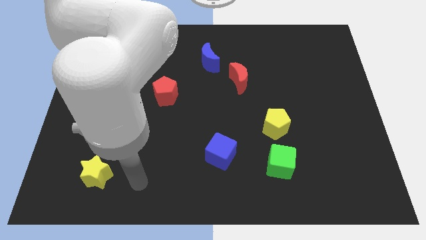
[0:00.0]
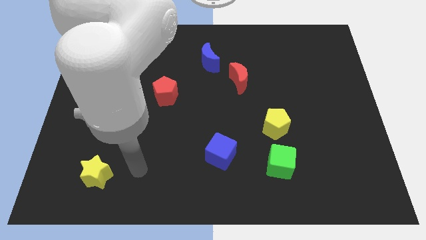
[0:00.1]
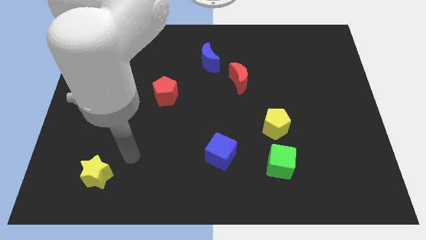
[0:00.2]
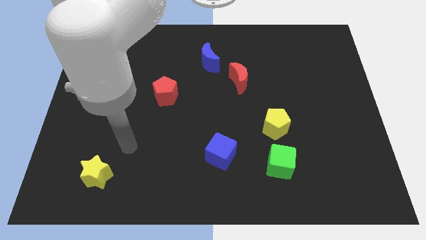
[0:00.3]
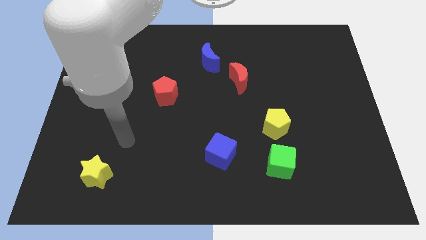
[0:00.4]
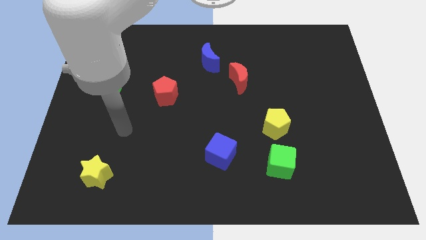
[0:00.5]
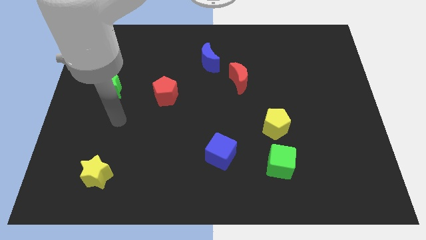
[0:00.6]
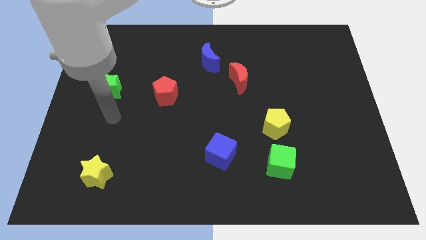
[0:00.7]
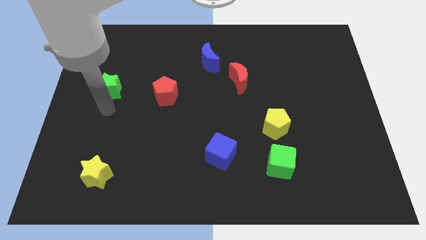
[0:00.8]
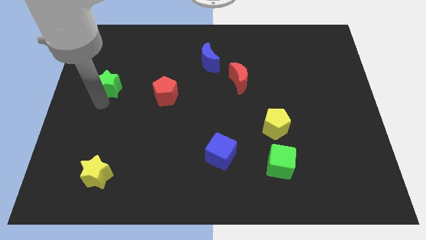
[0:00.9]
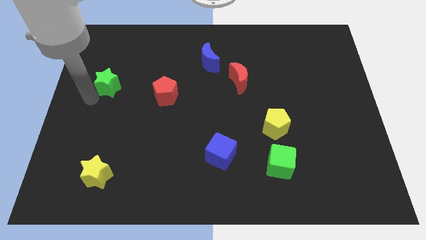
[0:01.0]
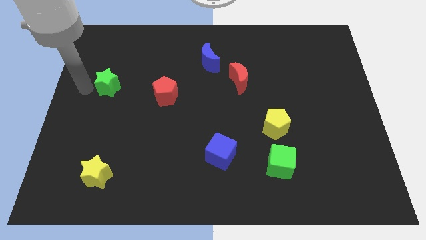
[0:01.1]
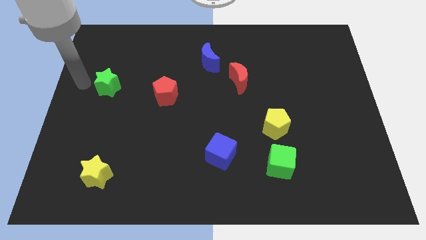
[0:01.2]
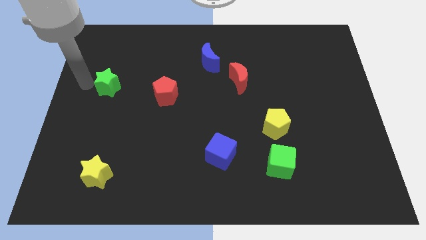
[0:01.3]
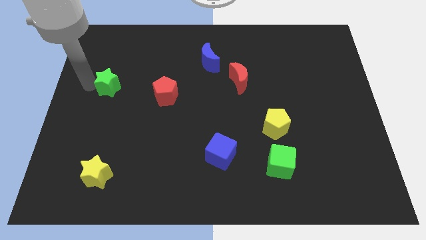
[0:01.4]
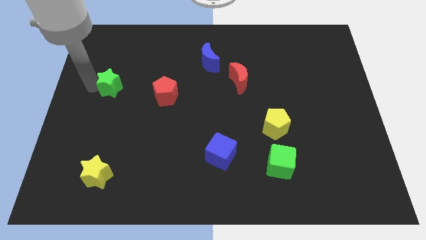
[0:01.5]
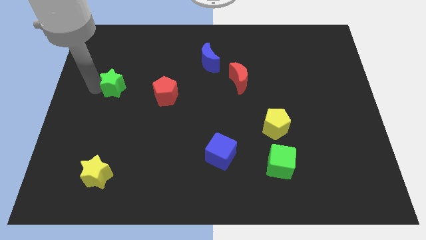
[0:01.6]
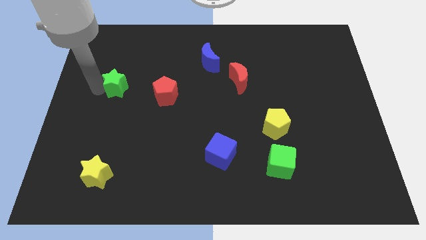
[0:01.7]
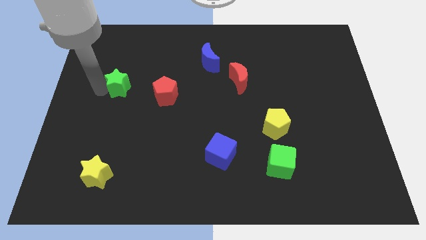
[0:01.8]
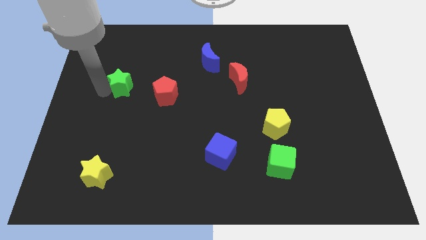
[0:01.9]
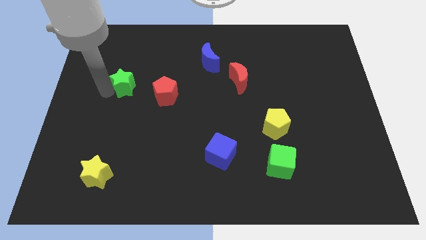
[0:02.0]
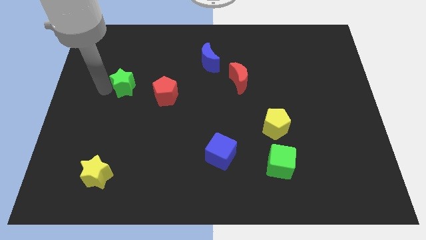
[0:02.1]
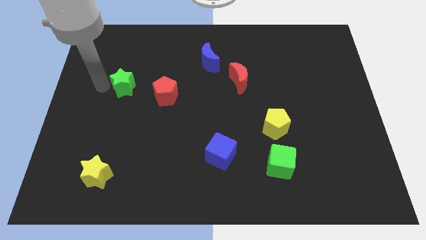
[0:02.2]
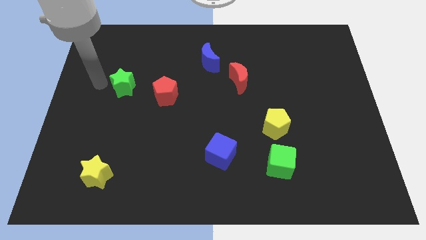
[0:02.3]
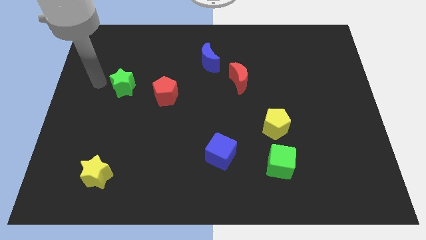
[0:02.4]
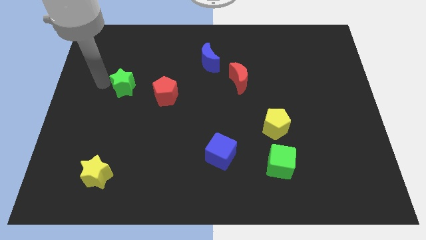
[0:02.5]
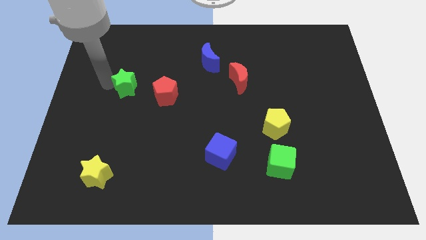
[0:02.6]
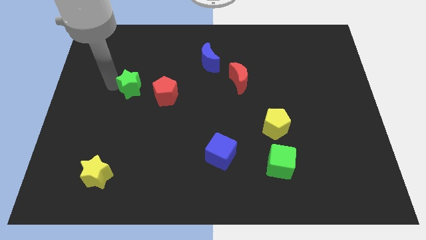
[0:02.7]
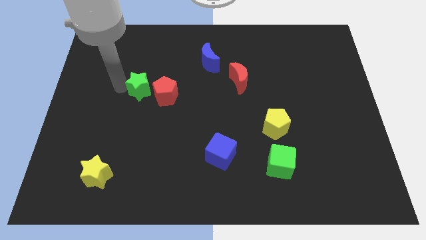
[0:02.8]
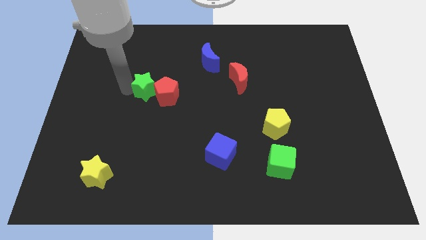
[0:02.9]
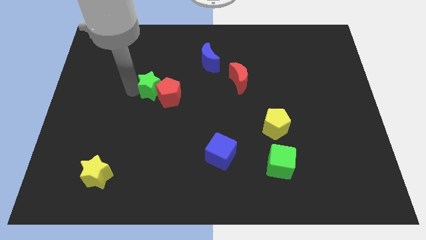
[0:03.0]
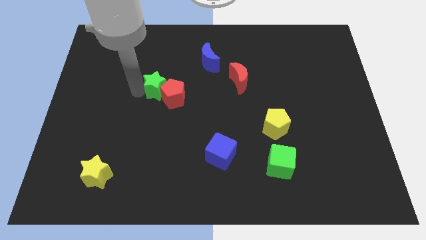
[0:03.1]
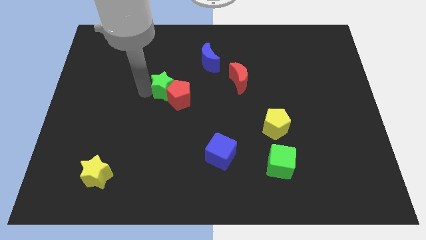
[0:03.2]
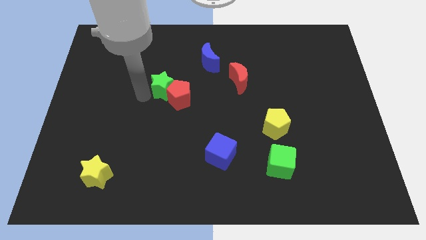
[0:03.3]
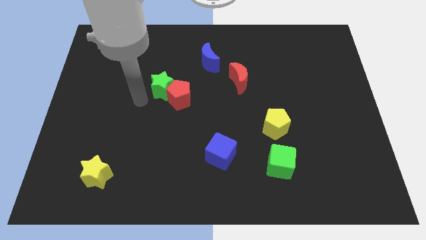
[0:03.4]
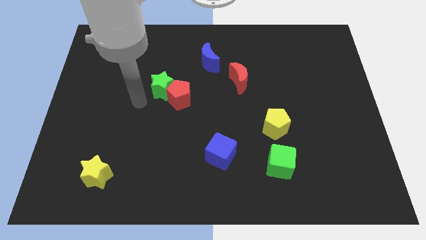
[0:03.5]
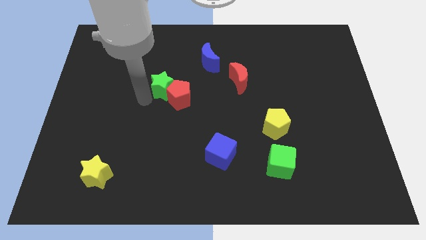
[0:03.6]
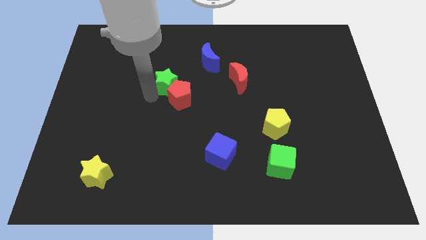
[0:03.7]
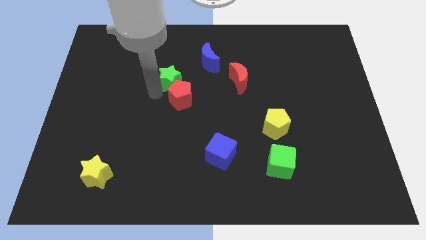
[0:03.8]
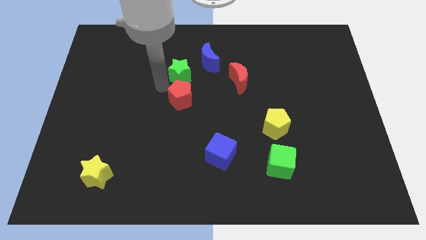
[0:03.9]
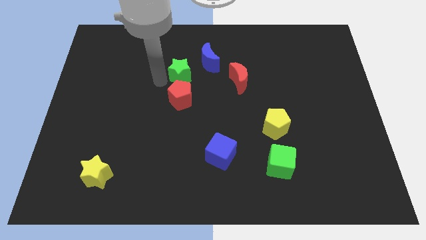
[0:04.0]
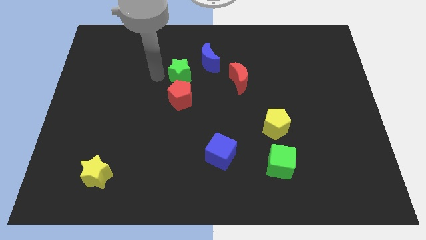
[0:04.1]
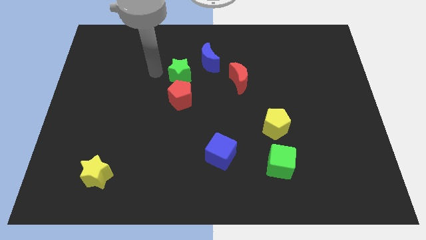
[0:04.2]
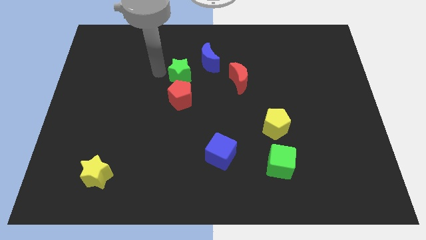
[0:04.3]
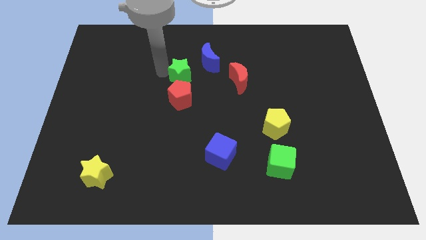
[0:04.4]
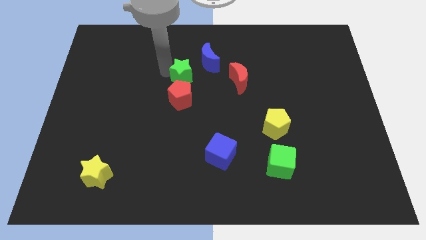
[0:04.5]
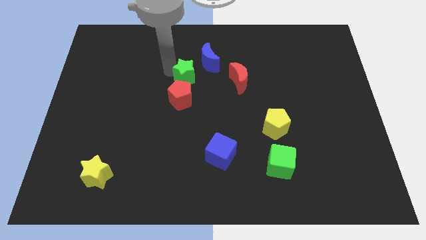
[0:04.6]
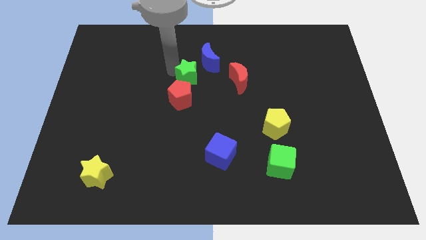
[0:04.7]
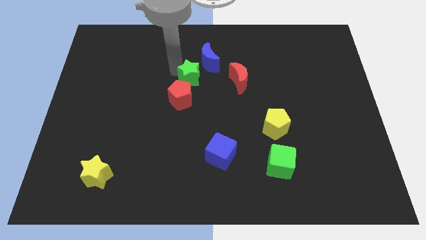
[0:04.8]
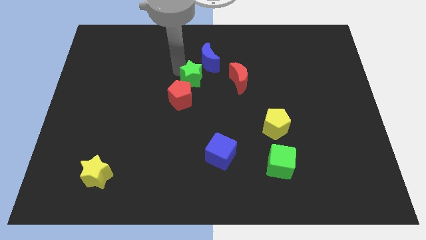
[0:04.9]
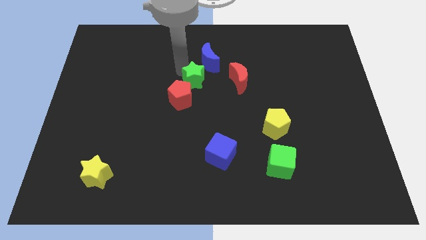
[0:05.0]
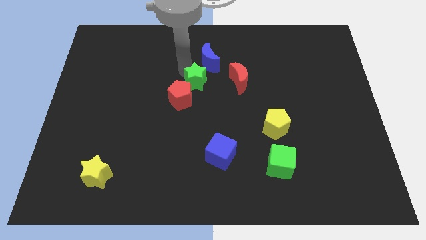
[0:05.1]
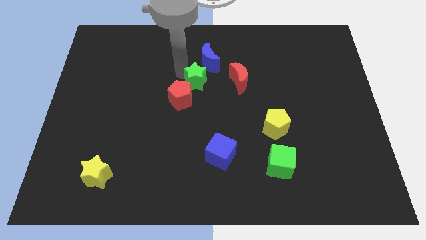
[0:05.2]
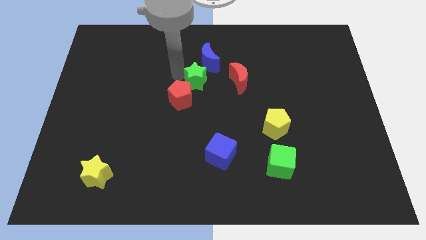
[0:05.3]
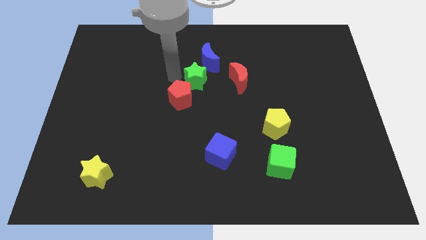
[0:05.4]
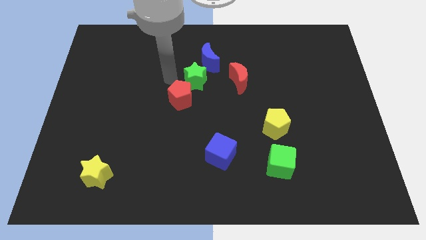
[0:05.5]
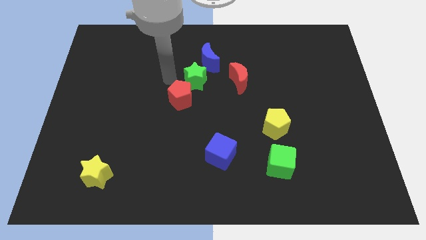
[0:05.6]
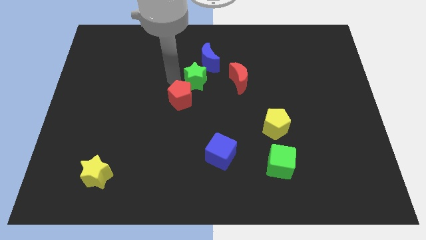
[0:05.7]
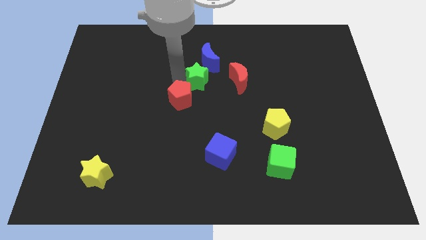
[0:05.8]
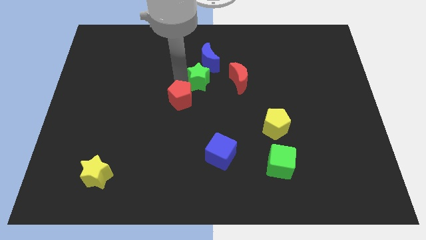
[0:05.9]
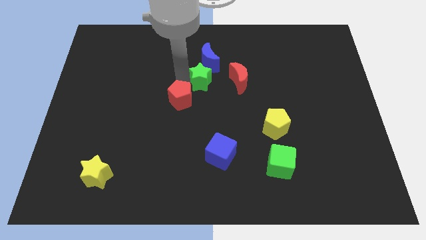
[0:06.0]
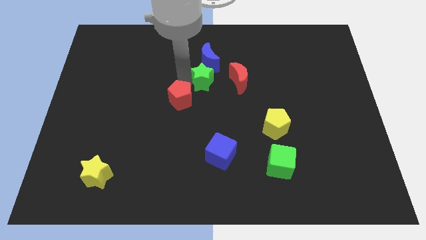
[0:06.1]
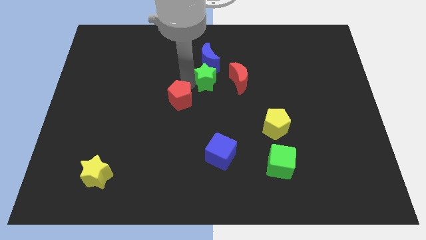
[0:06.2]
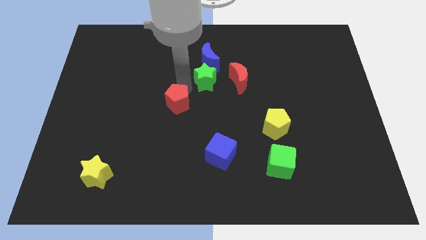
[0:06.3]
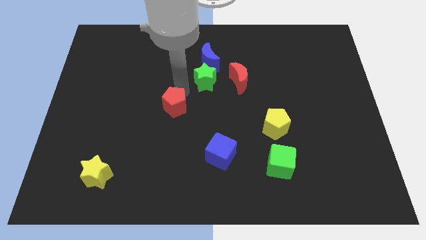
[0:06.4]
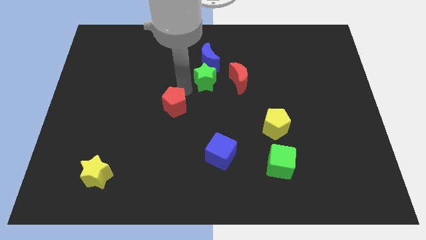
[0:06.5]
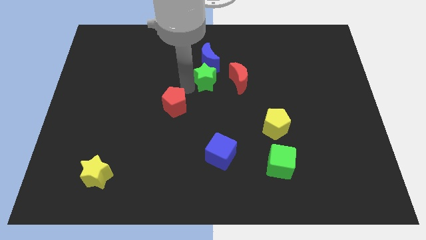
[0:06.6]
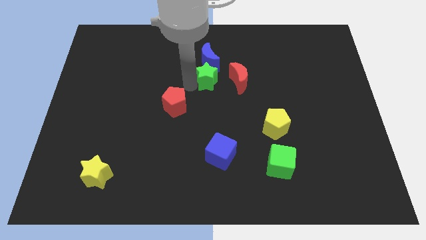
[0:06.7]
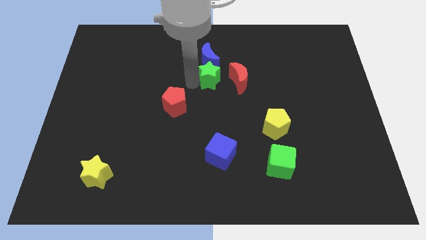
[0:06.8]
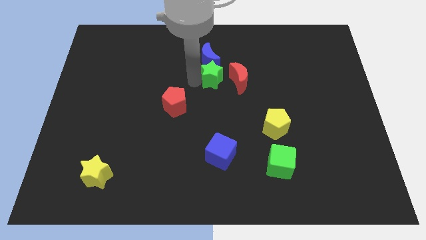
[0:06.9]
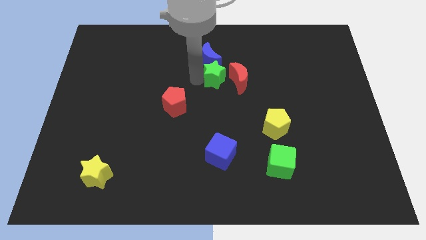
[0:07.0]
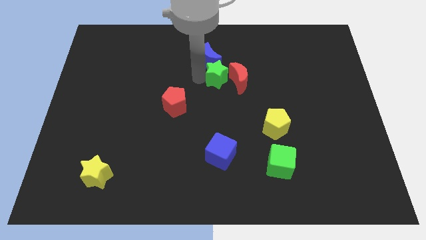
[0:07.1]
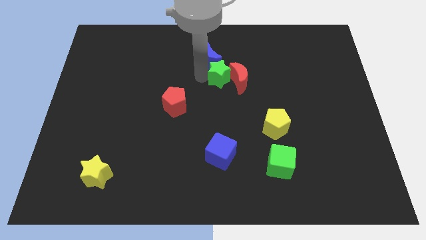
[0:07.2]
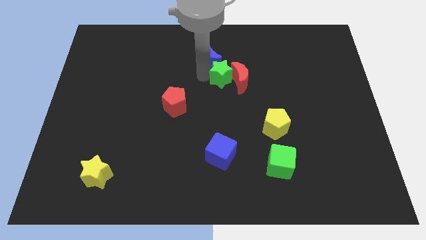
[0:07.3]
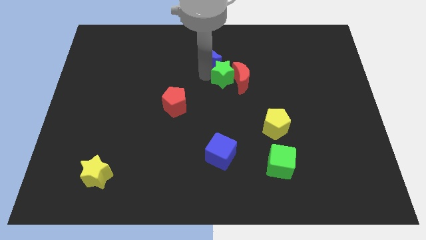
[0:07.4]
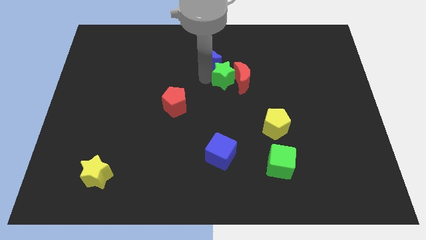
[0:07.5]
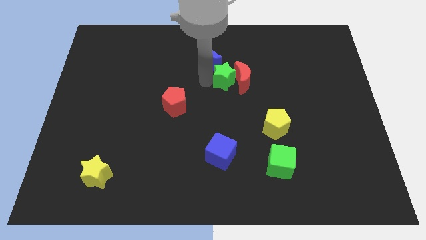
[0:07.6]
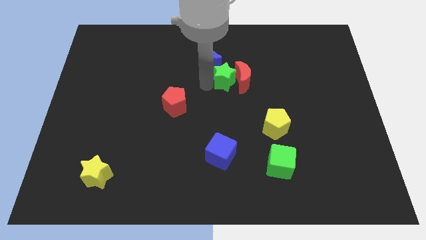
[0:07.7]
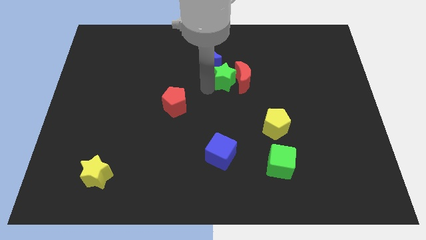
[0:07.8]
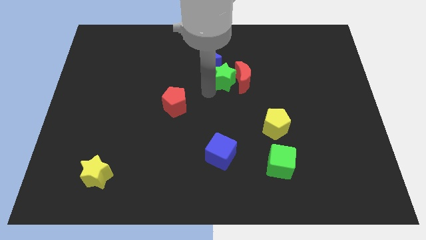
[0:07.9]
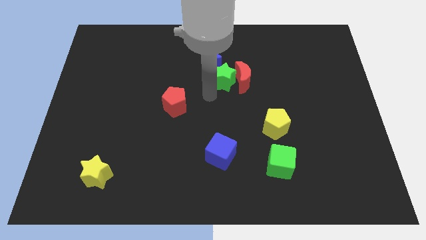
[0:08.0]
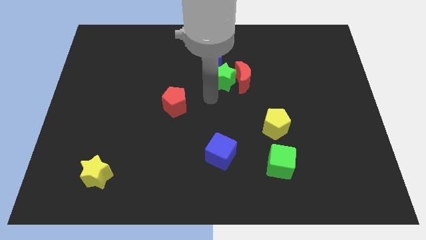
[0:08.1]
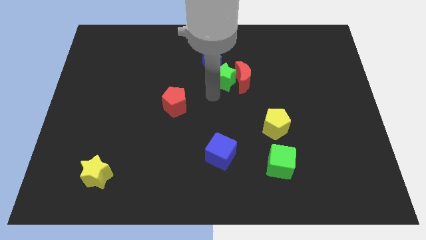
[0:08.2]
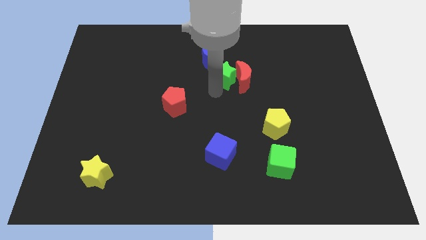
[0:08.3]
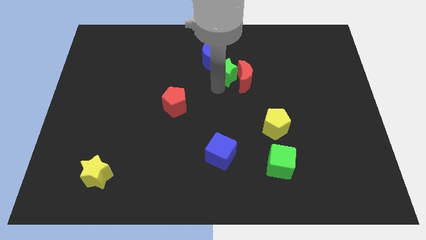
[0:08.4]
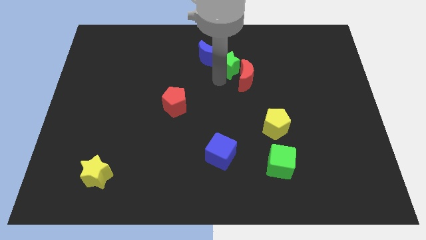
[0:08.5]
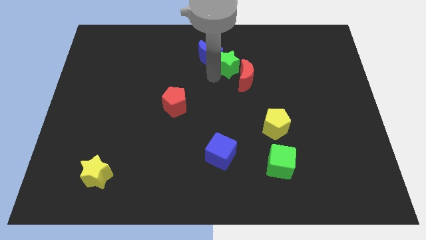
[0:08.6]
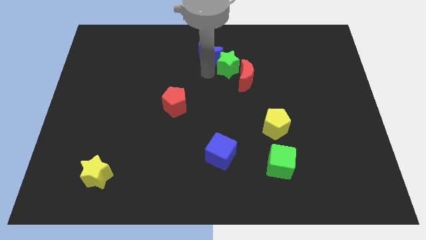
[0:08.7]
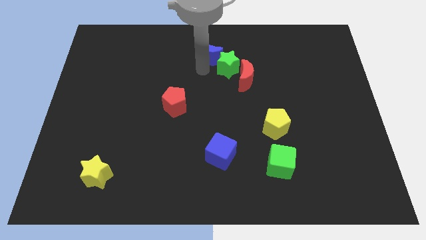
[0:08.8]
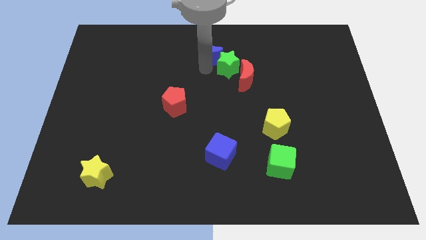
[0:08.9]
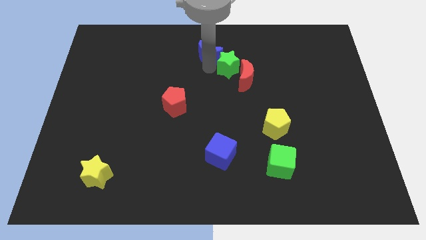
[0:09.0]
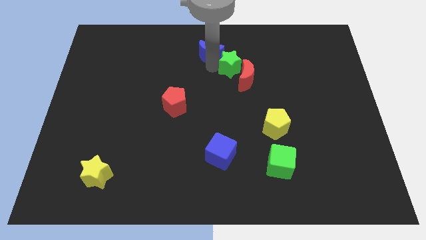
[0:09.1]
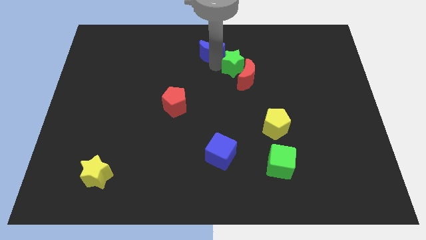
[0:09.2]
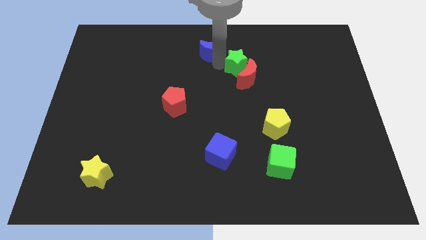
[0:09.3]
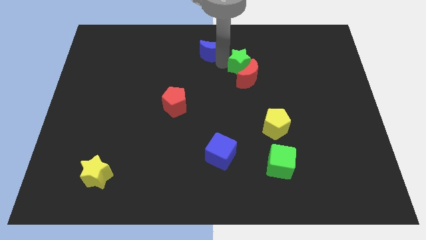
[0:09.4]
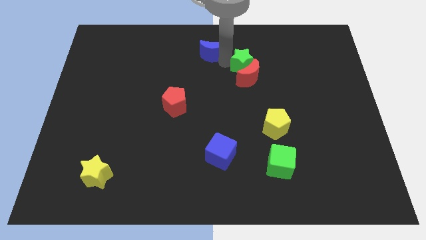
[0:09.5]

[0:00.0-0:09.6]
move the green star diagonally up and to the right of the red moon
